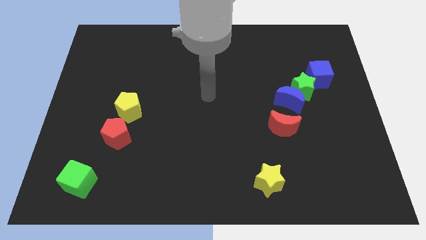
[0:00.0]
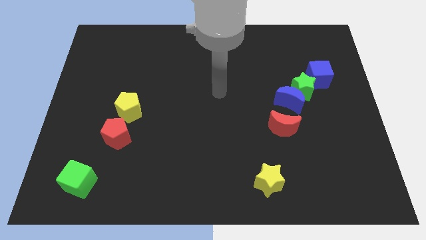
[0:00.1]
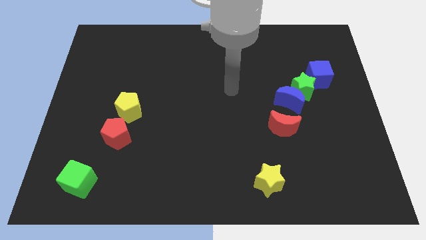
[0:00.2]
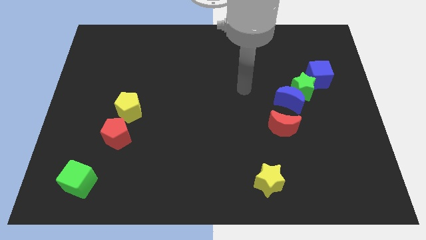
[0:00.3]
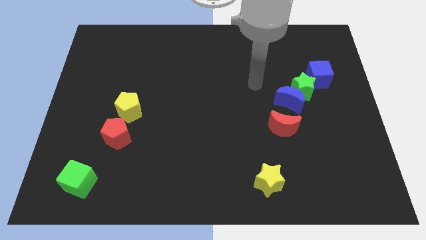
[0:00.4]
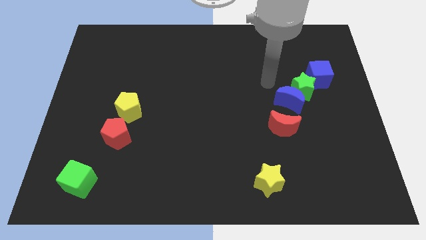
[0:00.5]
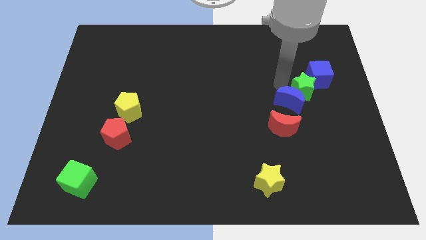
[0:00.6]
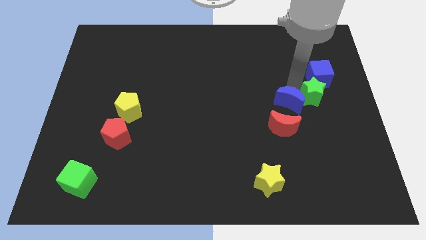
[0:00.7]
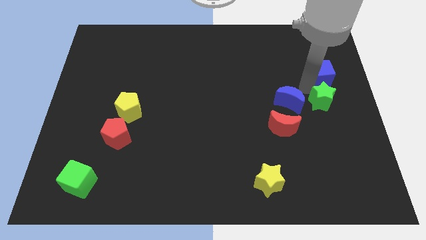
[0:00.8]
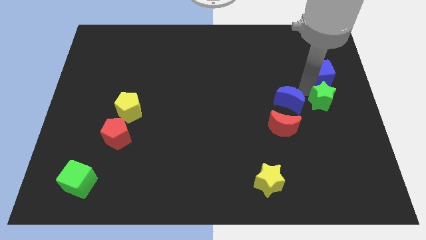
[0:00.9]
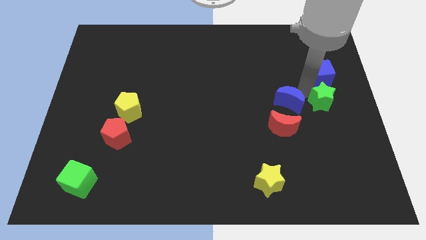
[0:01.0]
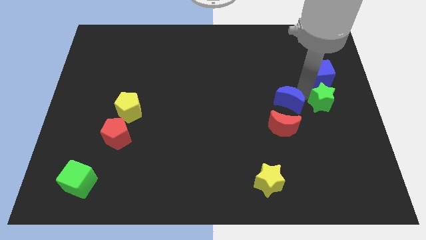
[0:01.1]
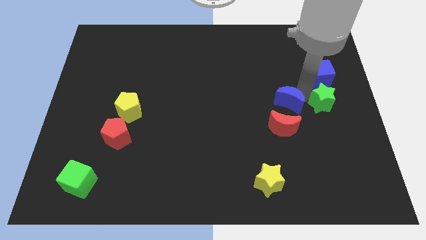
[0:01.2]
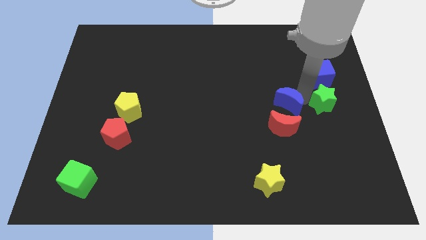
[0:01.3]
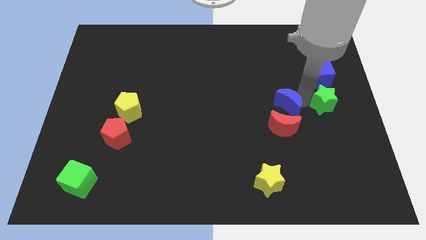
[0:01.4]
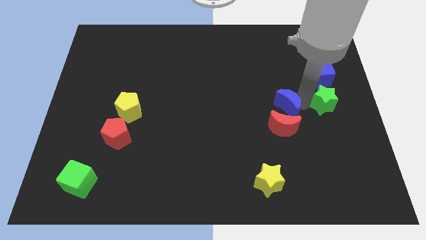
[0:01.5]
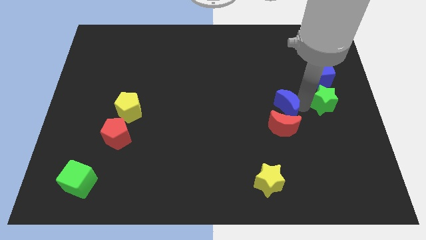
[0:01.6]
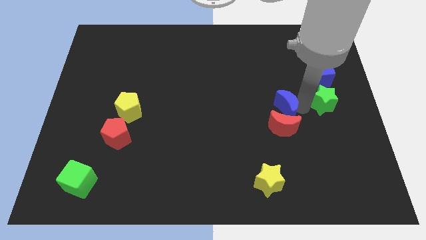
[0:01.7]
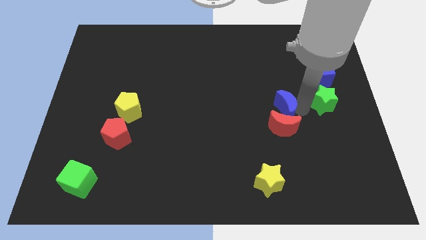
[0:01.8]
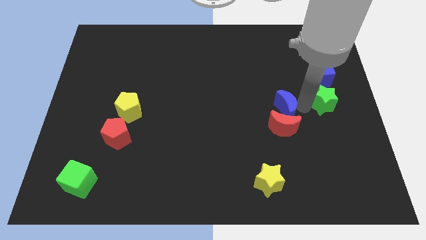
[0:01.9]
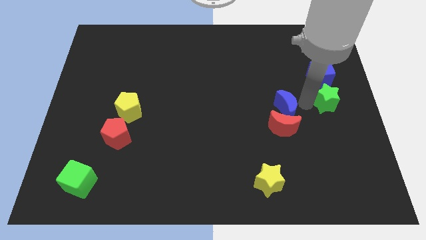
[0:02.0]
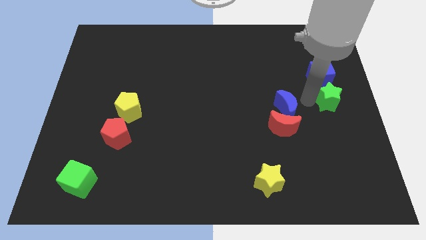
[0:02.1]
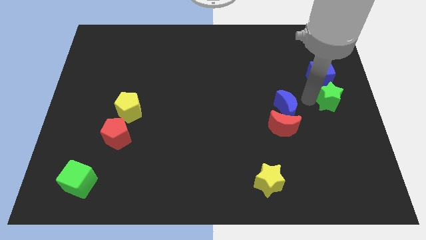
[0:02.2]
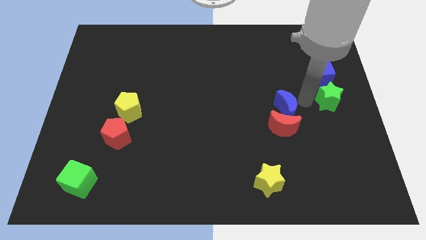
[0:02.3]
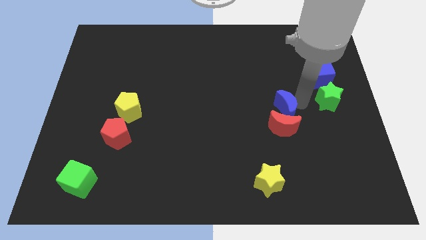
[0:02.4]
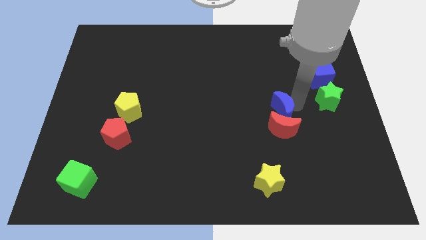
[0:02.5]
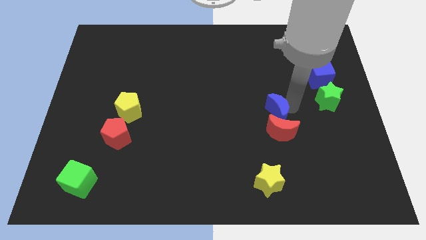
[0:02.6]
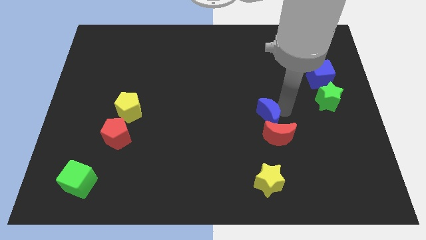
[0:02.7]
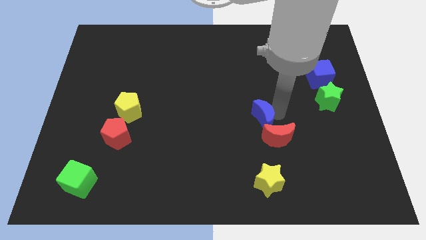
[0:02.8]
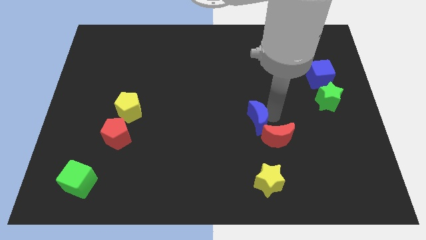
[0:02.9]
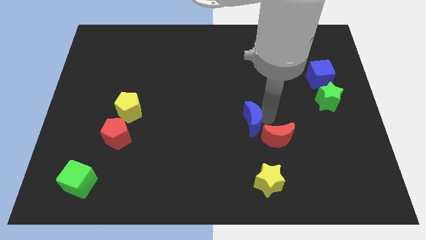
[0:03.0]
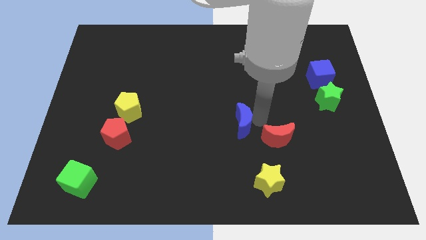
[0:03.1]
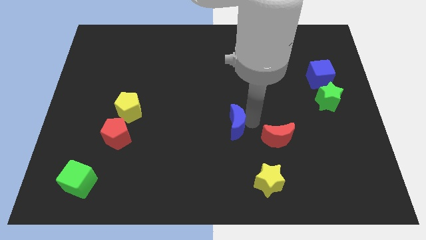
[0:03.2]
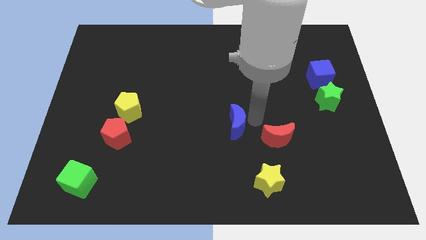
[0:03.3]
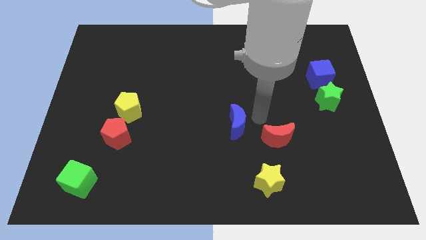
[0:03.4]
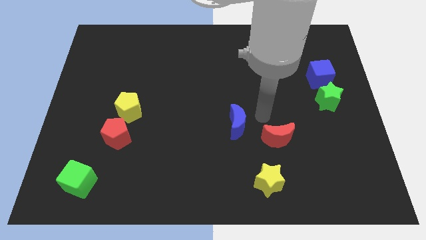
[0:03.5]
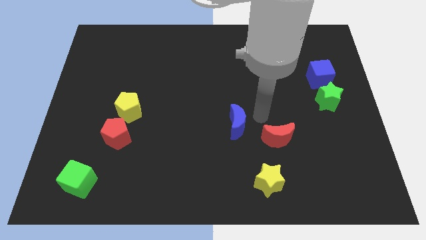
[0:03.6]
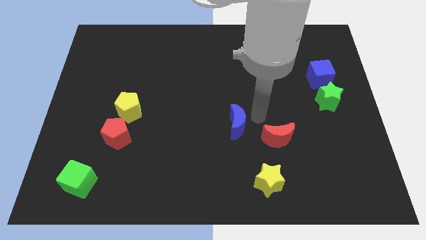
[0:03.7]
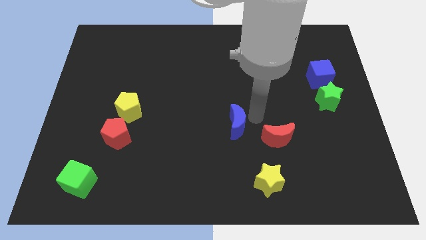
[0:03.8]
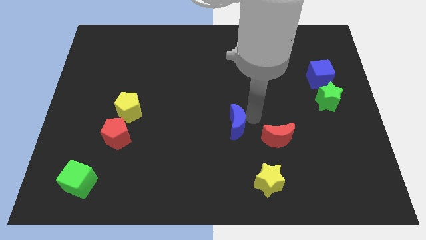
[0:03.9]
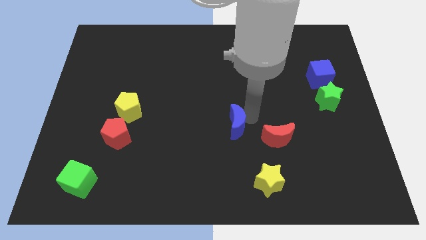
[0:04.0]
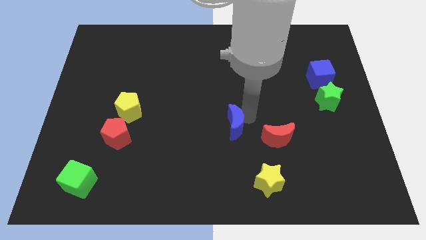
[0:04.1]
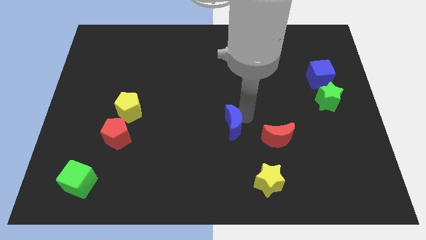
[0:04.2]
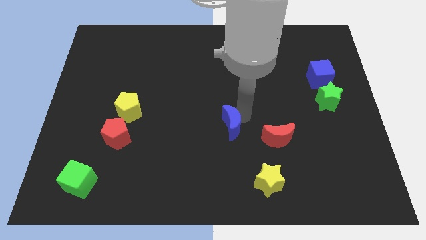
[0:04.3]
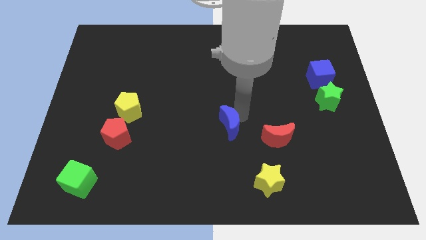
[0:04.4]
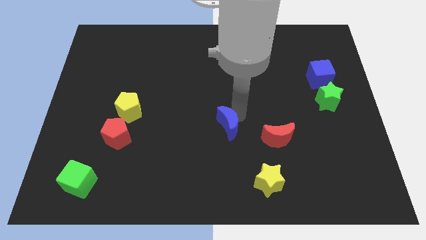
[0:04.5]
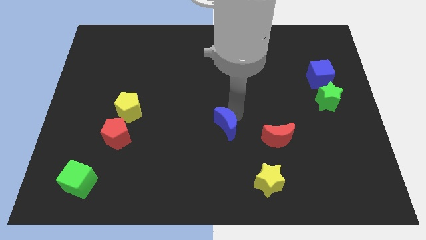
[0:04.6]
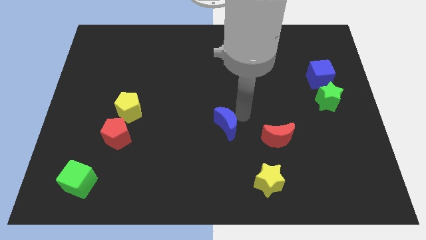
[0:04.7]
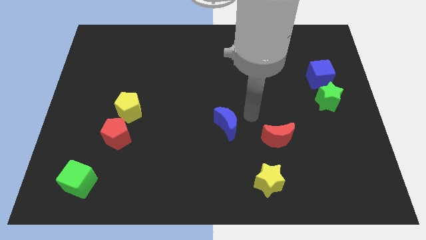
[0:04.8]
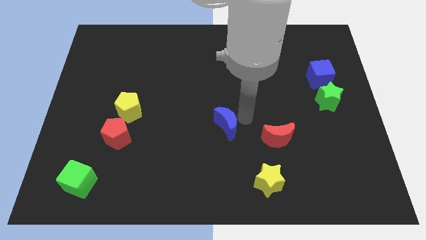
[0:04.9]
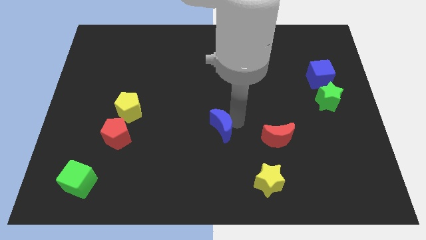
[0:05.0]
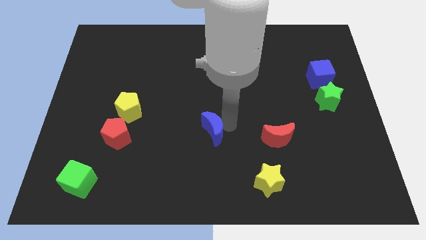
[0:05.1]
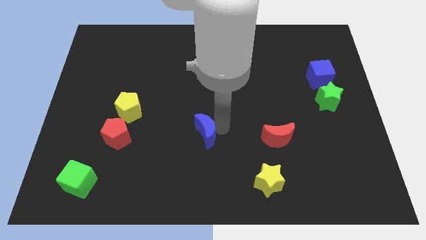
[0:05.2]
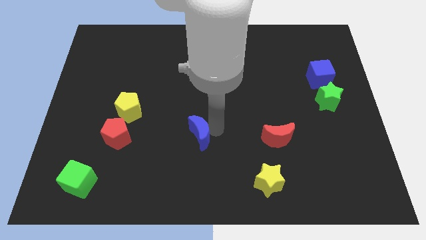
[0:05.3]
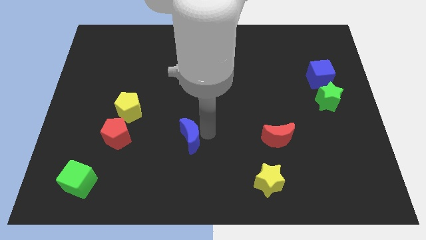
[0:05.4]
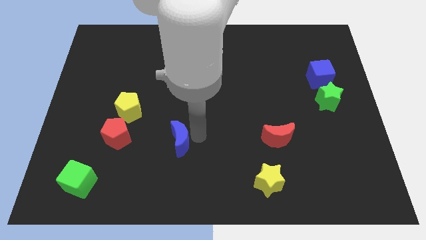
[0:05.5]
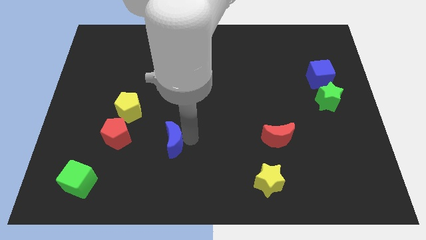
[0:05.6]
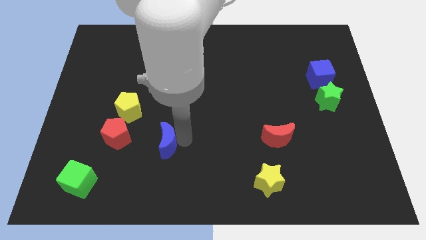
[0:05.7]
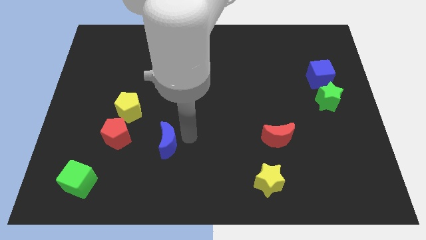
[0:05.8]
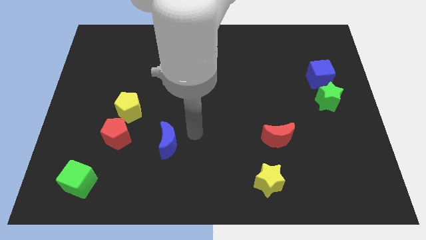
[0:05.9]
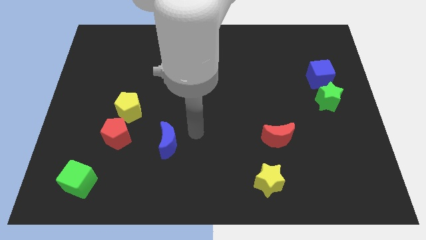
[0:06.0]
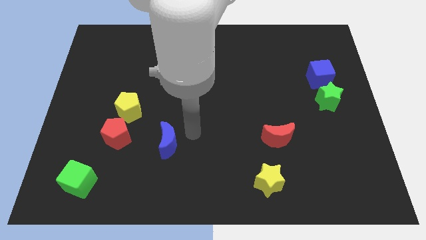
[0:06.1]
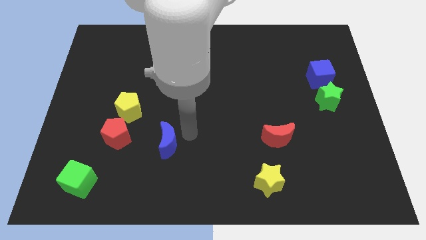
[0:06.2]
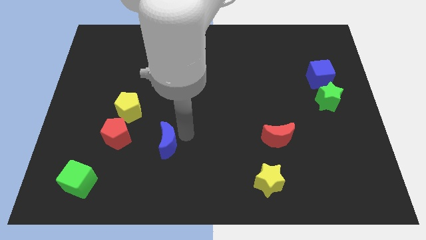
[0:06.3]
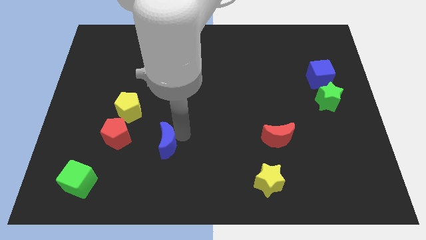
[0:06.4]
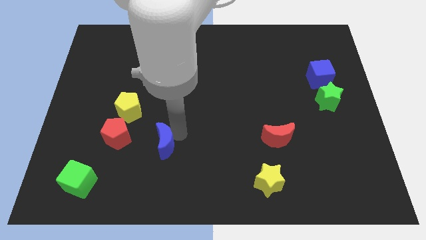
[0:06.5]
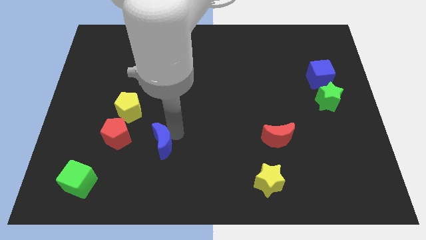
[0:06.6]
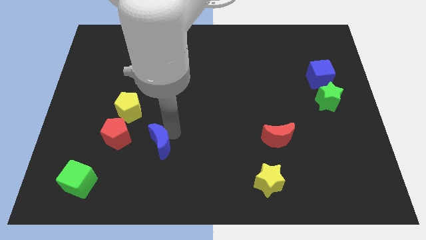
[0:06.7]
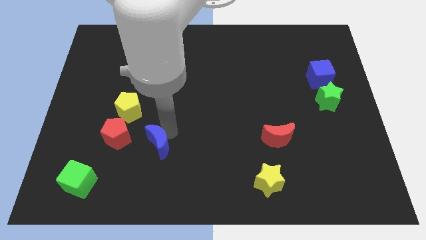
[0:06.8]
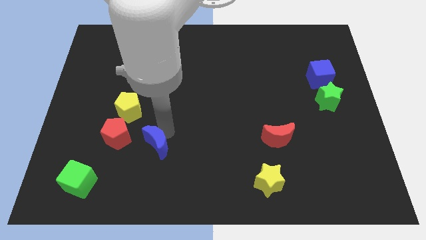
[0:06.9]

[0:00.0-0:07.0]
put the blue moon to the bottom right side of the red pentagon
